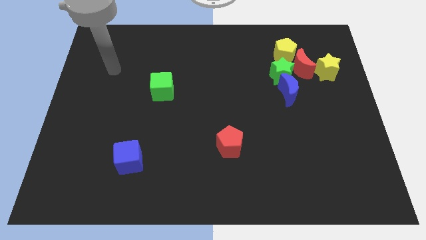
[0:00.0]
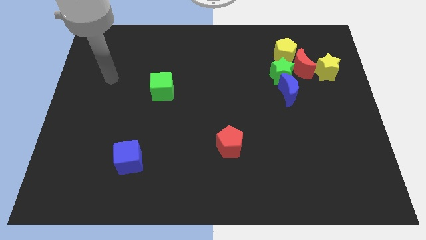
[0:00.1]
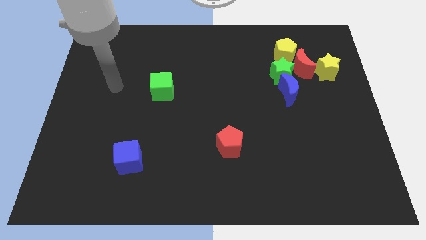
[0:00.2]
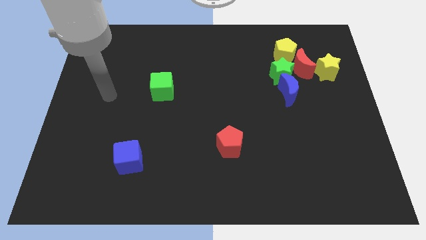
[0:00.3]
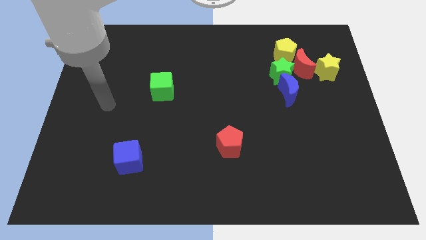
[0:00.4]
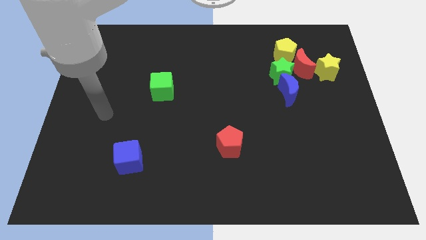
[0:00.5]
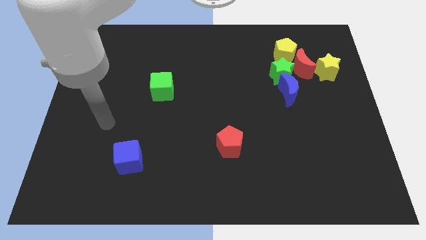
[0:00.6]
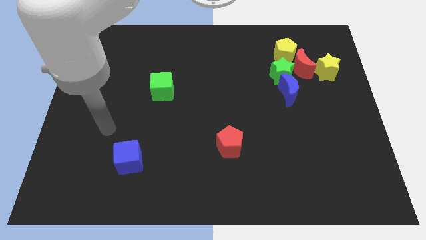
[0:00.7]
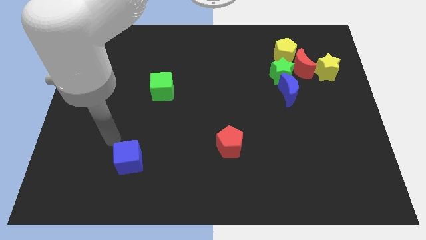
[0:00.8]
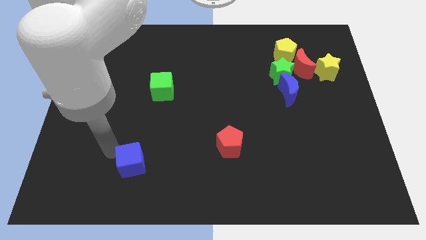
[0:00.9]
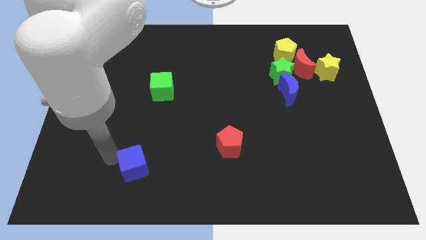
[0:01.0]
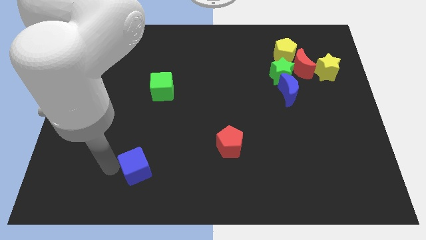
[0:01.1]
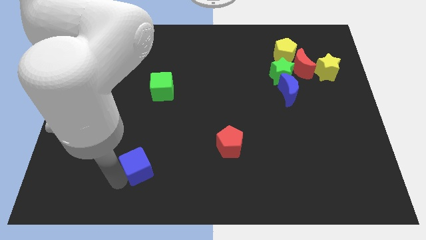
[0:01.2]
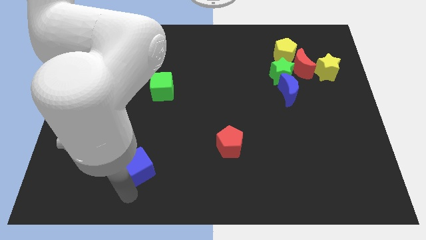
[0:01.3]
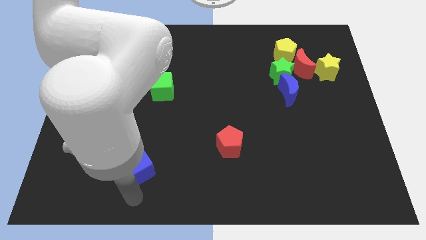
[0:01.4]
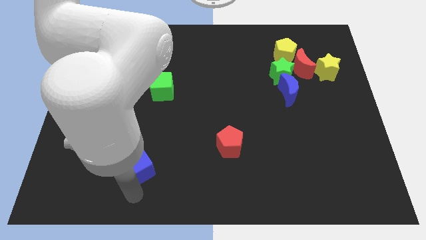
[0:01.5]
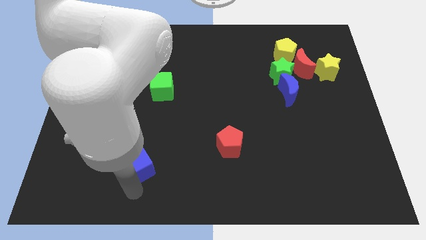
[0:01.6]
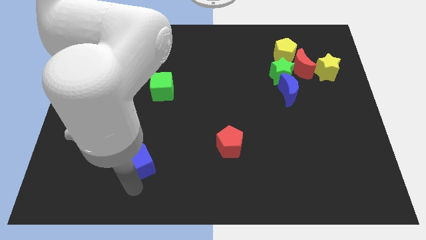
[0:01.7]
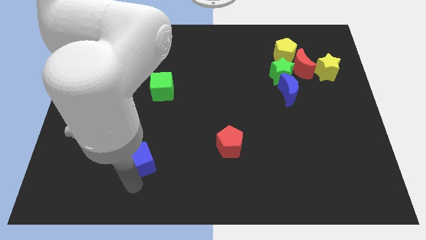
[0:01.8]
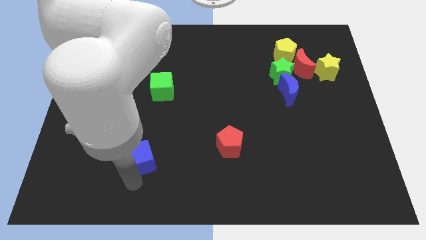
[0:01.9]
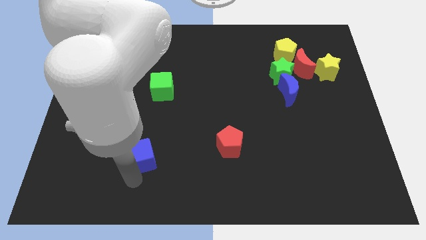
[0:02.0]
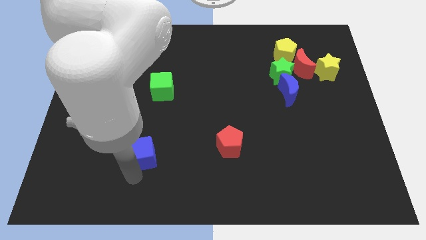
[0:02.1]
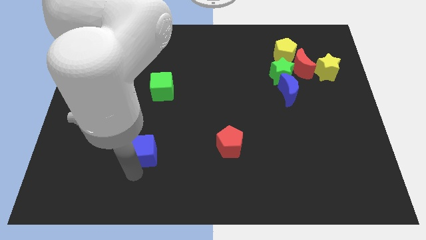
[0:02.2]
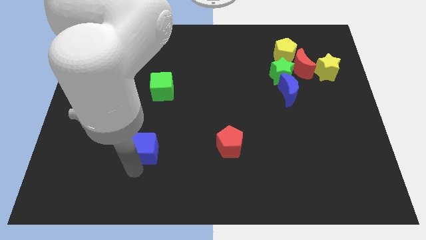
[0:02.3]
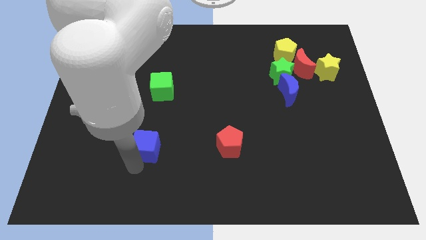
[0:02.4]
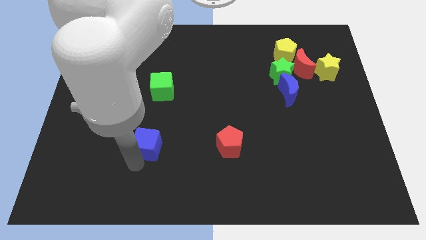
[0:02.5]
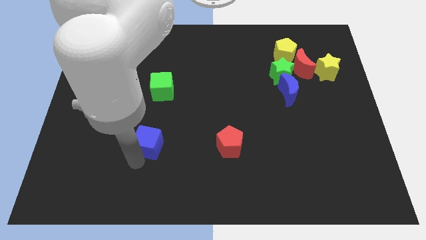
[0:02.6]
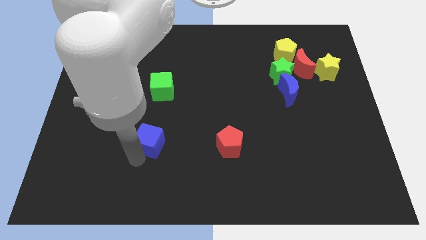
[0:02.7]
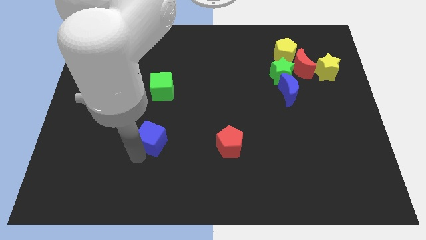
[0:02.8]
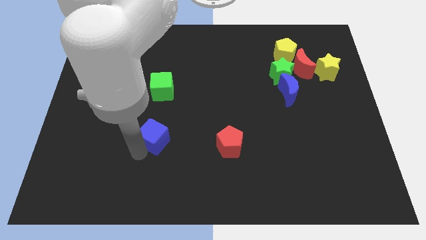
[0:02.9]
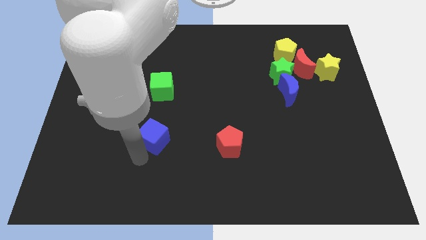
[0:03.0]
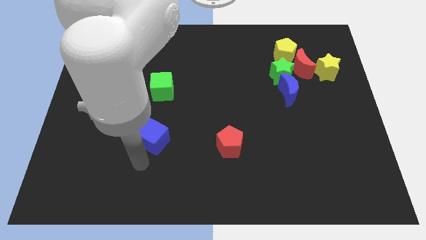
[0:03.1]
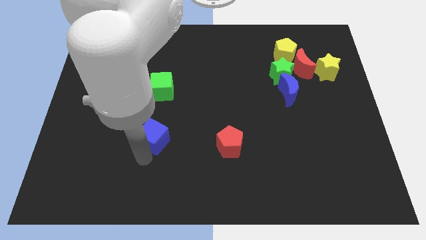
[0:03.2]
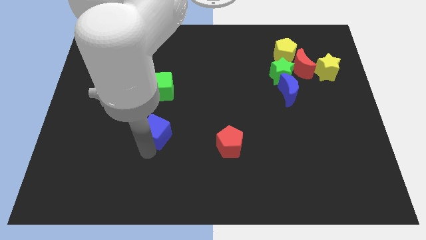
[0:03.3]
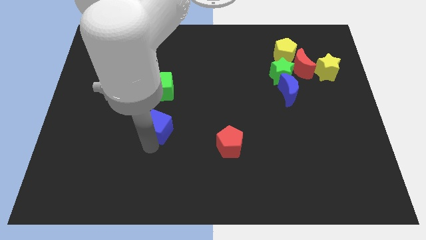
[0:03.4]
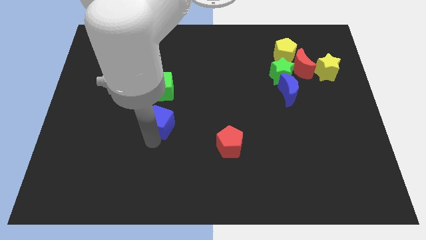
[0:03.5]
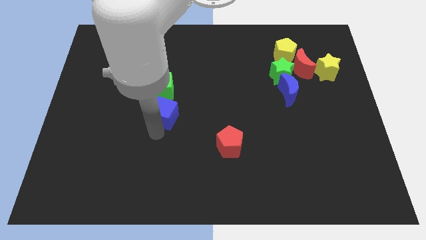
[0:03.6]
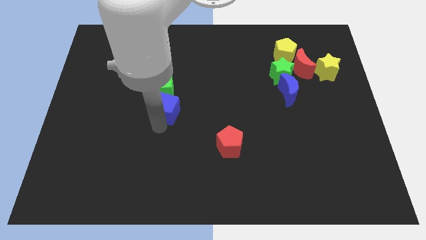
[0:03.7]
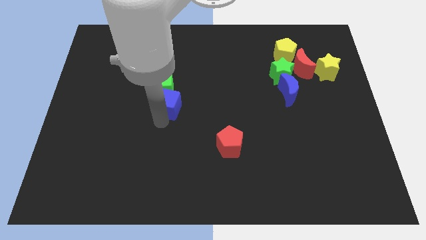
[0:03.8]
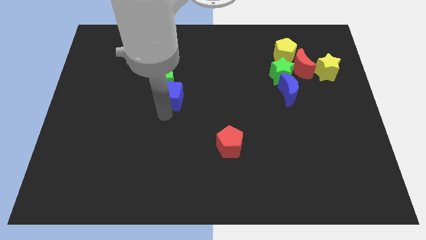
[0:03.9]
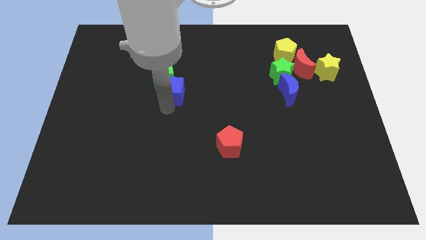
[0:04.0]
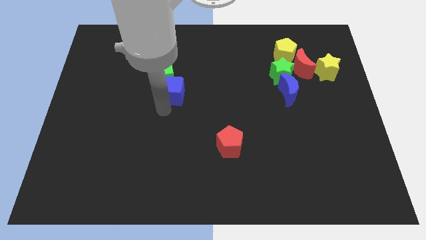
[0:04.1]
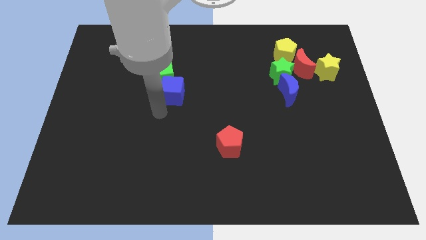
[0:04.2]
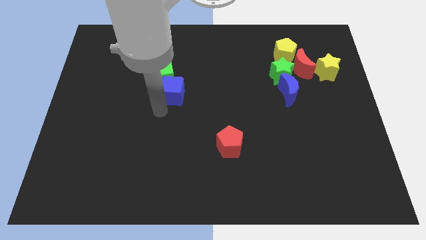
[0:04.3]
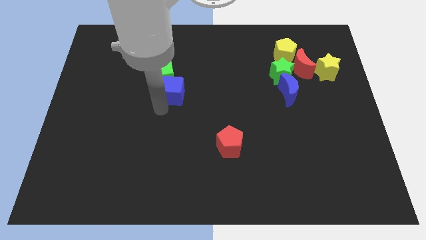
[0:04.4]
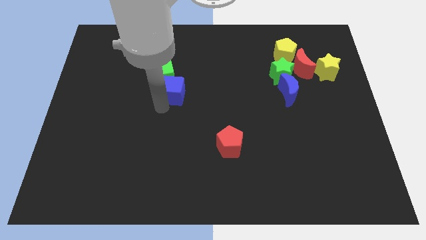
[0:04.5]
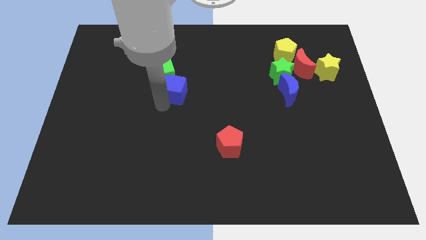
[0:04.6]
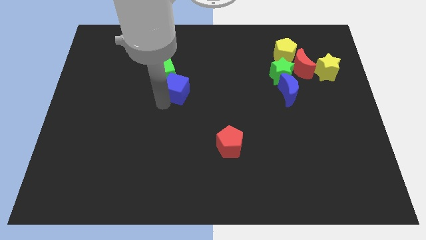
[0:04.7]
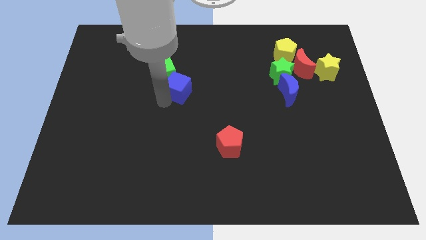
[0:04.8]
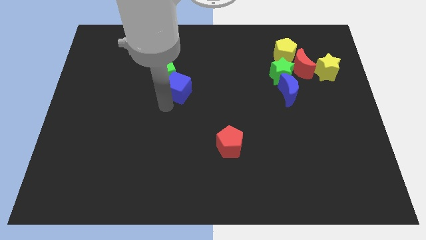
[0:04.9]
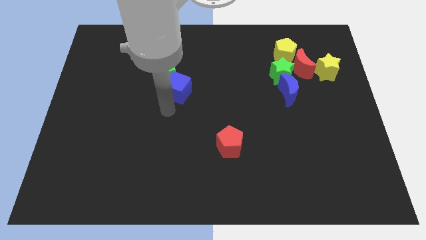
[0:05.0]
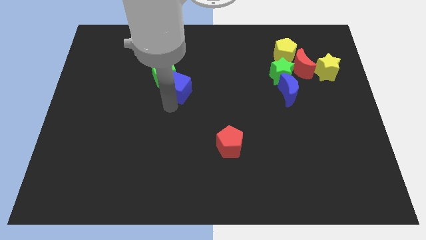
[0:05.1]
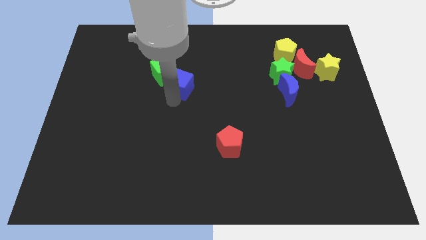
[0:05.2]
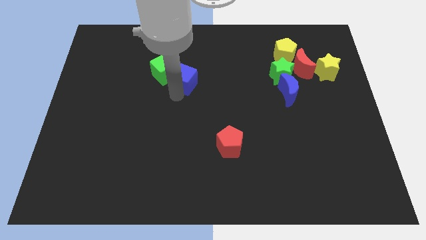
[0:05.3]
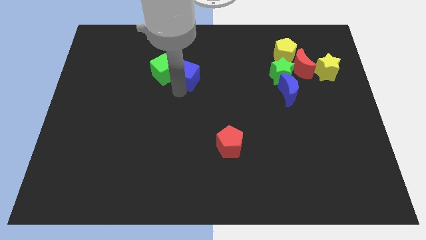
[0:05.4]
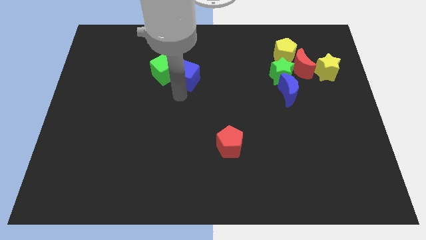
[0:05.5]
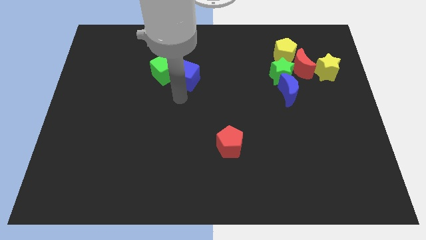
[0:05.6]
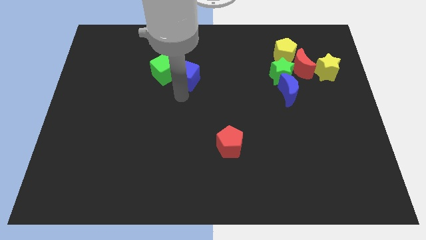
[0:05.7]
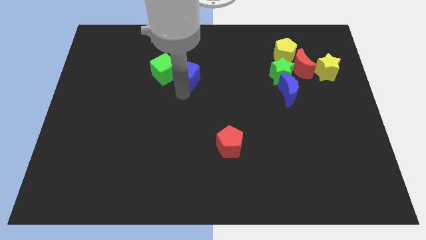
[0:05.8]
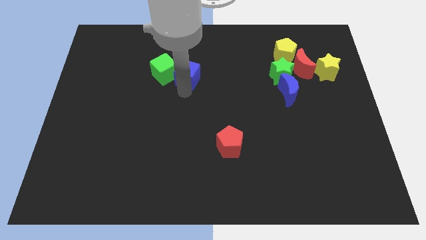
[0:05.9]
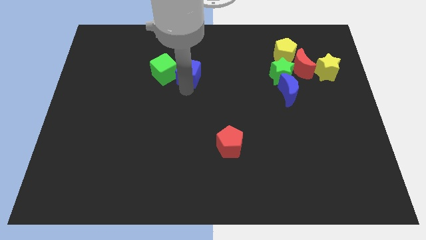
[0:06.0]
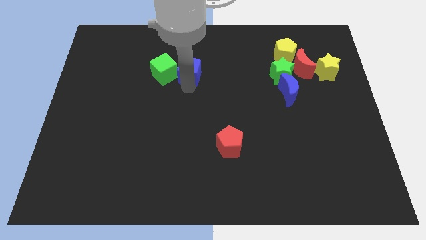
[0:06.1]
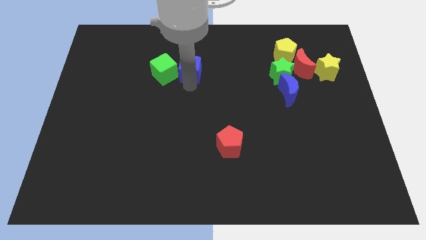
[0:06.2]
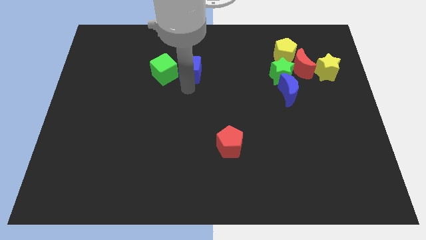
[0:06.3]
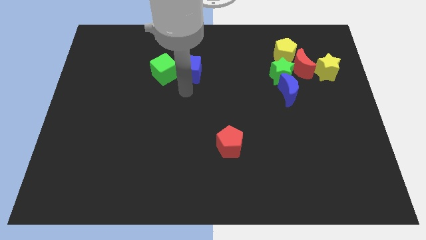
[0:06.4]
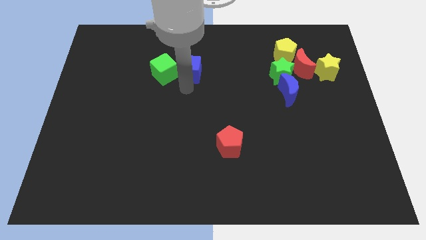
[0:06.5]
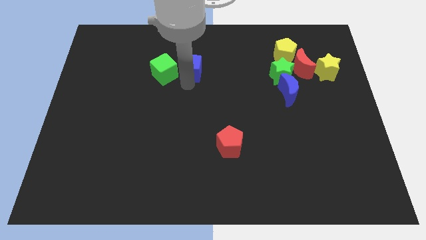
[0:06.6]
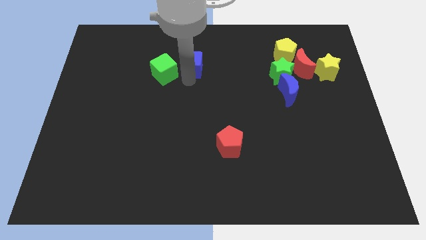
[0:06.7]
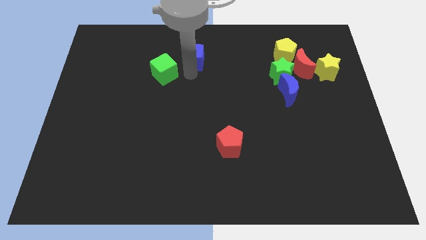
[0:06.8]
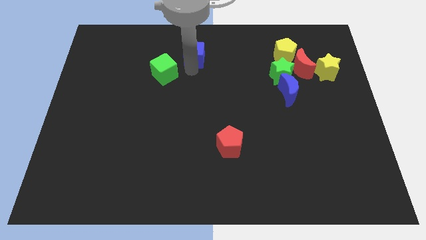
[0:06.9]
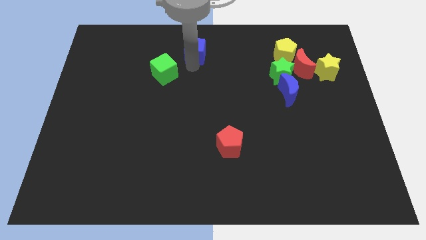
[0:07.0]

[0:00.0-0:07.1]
slide the blue cube to the towards your base
